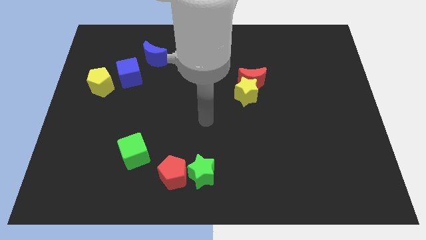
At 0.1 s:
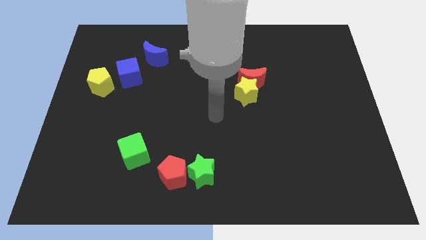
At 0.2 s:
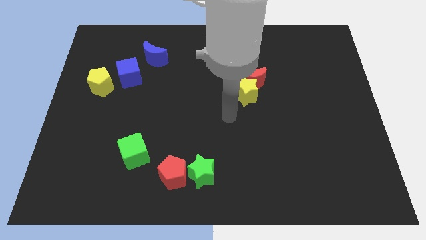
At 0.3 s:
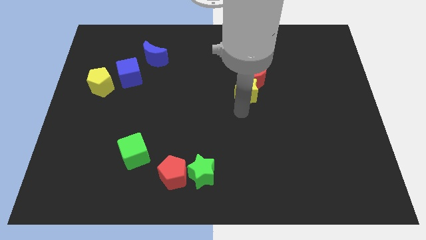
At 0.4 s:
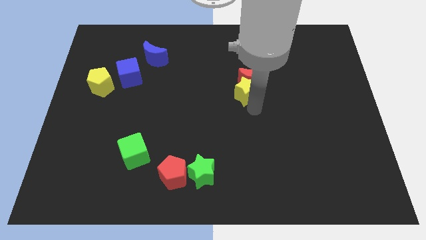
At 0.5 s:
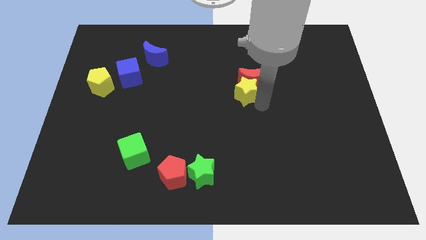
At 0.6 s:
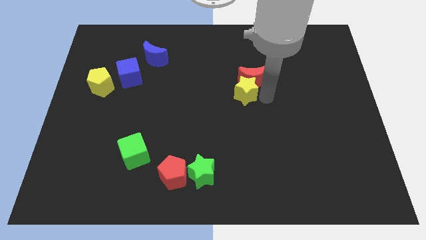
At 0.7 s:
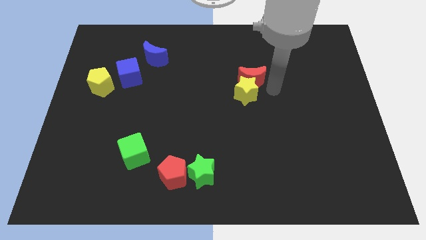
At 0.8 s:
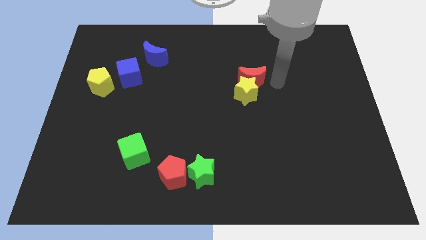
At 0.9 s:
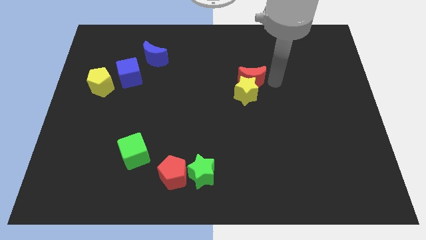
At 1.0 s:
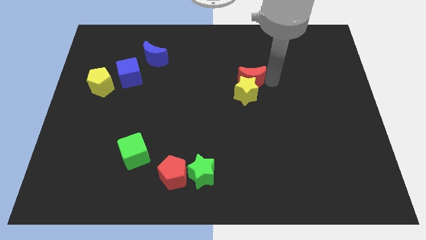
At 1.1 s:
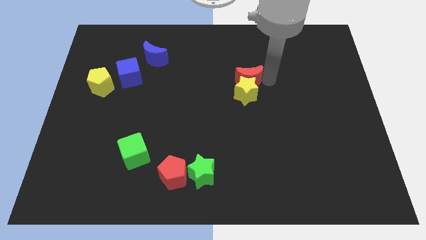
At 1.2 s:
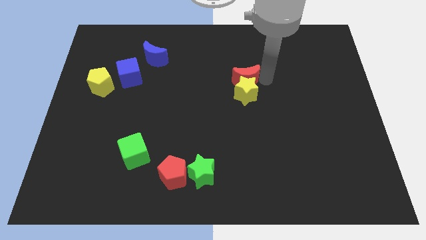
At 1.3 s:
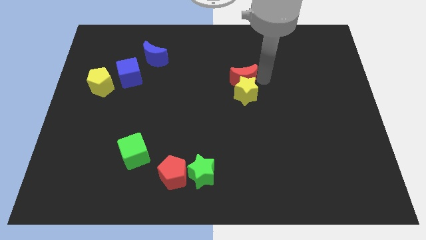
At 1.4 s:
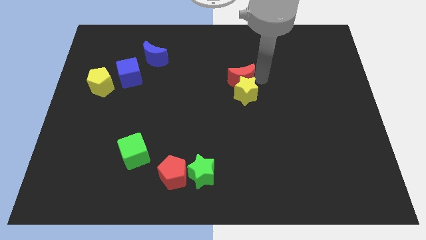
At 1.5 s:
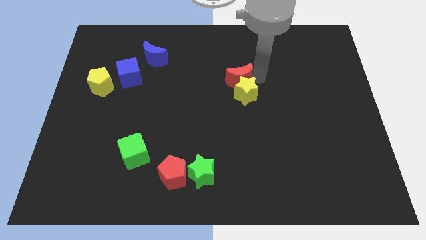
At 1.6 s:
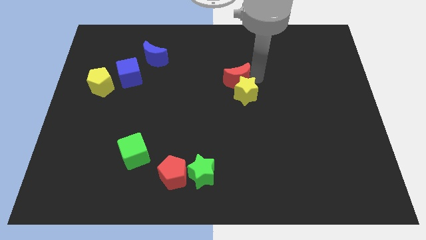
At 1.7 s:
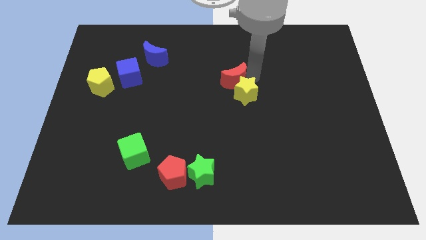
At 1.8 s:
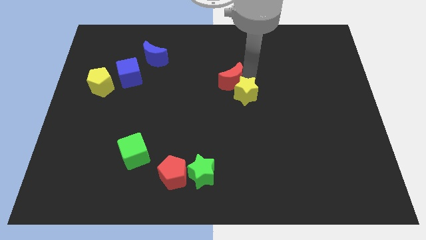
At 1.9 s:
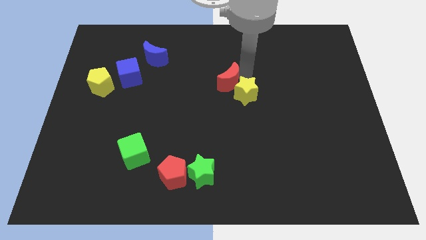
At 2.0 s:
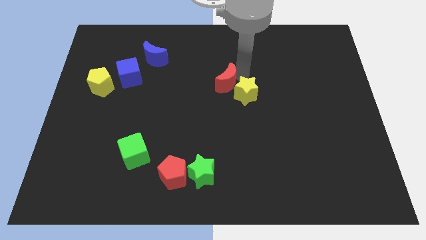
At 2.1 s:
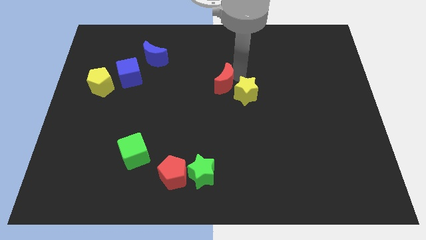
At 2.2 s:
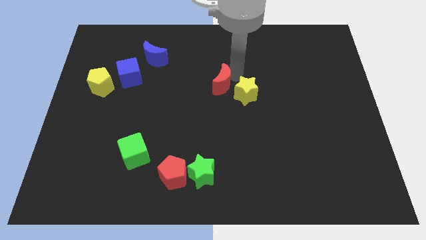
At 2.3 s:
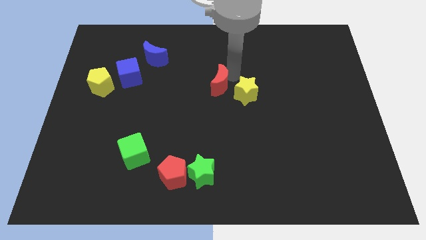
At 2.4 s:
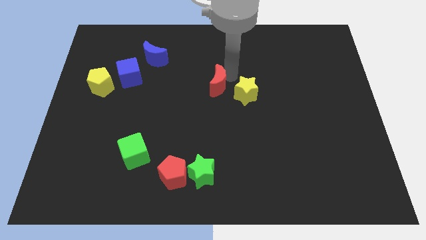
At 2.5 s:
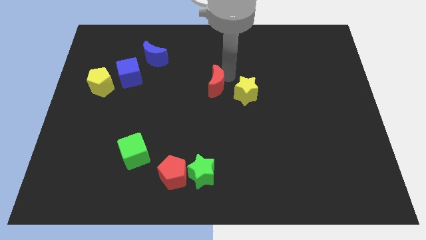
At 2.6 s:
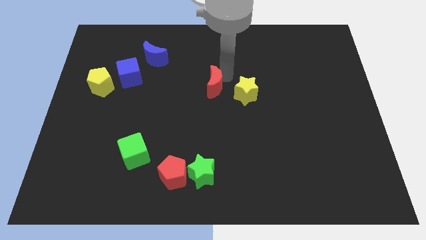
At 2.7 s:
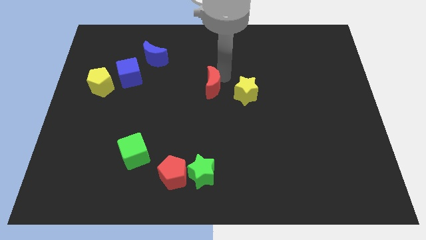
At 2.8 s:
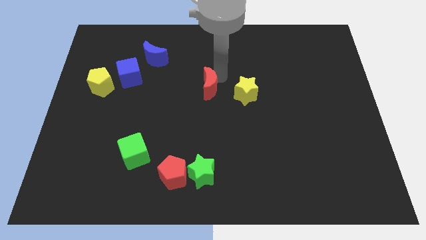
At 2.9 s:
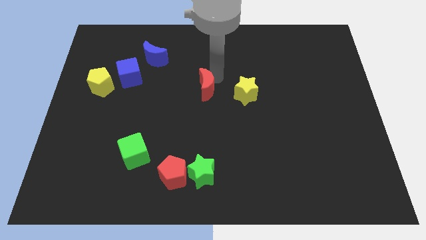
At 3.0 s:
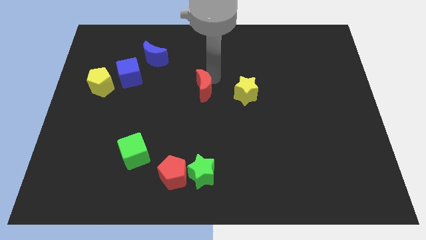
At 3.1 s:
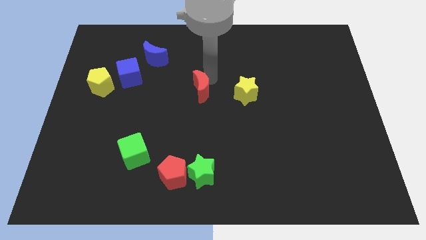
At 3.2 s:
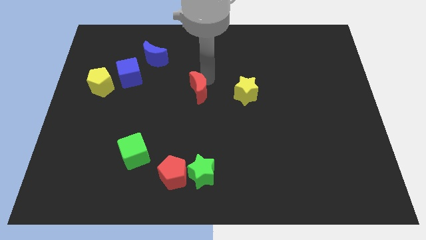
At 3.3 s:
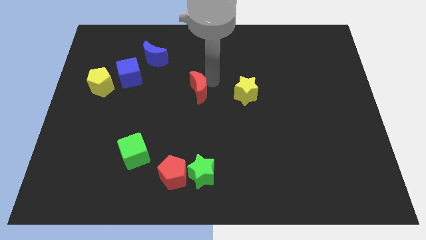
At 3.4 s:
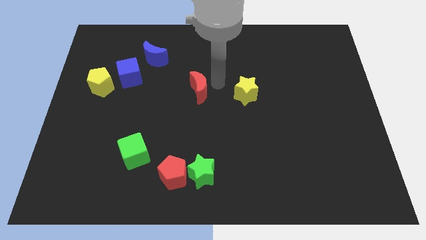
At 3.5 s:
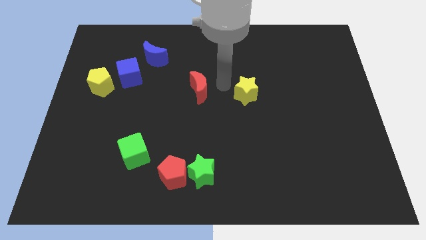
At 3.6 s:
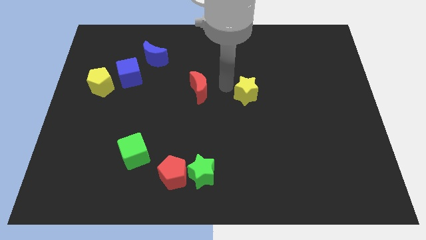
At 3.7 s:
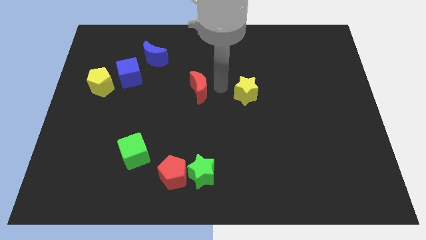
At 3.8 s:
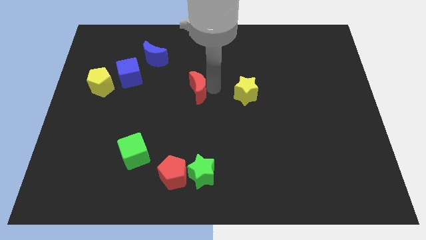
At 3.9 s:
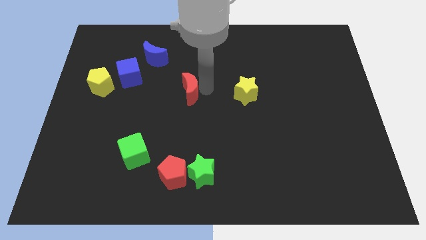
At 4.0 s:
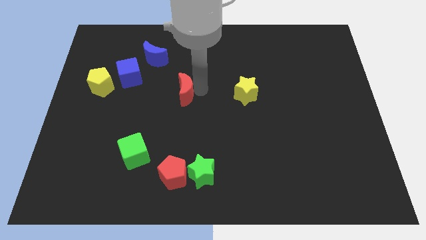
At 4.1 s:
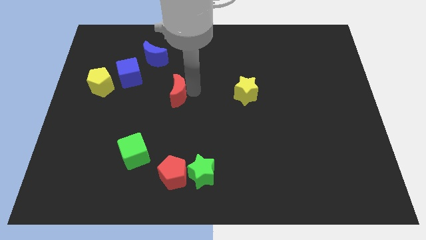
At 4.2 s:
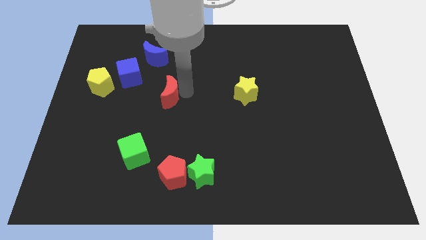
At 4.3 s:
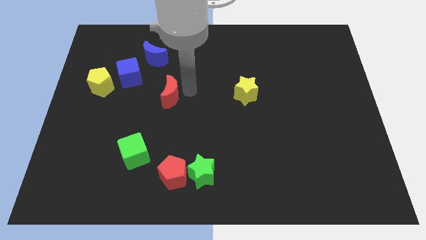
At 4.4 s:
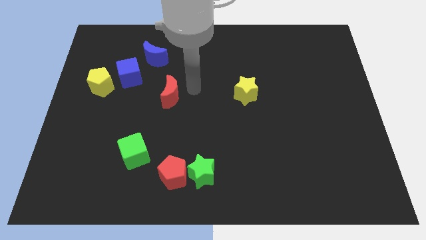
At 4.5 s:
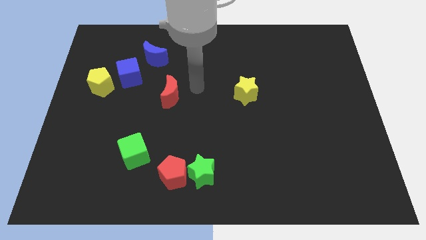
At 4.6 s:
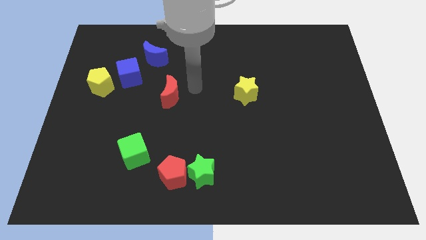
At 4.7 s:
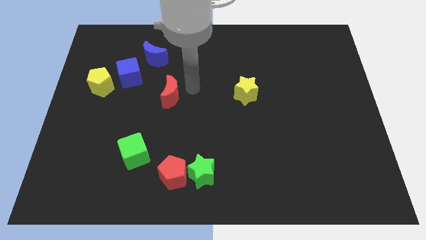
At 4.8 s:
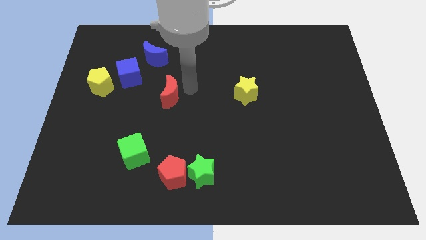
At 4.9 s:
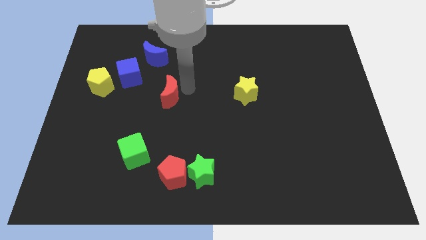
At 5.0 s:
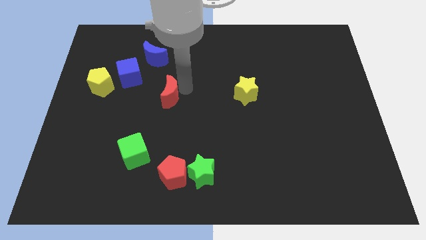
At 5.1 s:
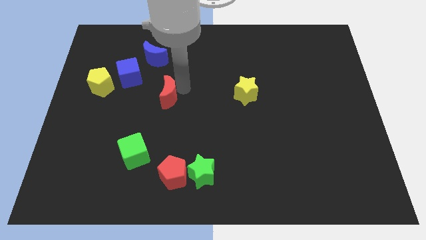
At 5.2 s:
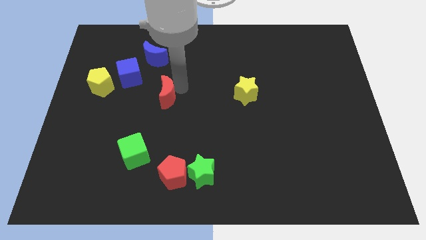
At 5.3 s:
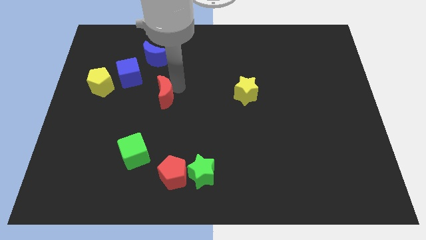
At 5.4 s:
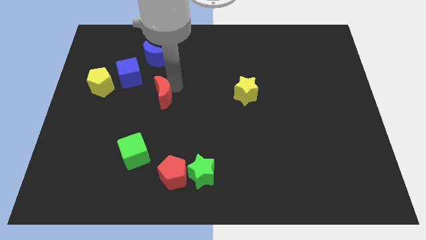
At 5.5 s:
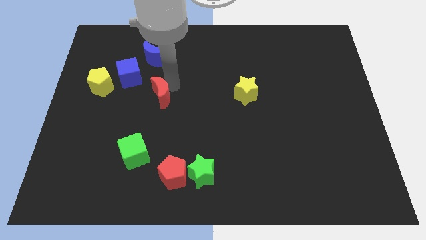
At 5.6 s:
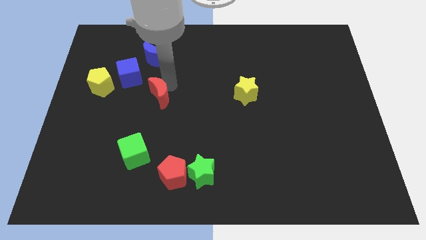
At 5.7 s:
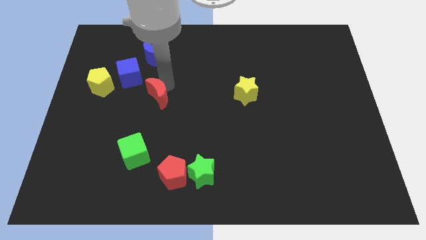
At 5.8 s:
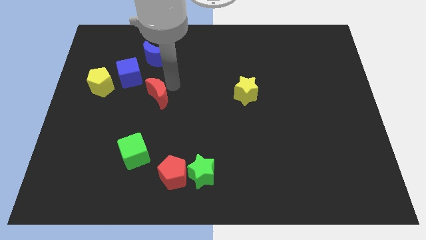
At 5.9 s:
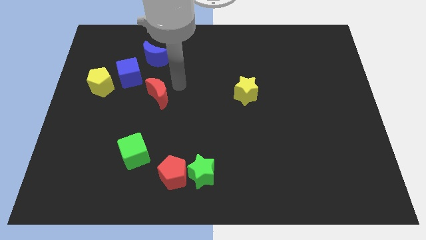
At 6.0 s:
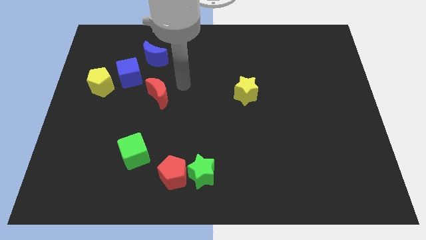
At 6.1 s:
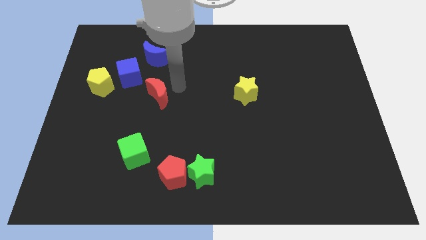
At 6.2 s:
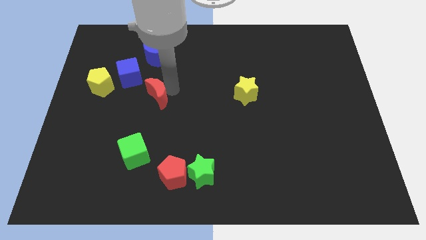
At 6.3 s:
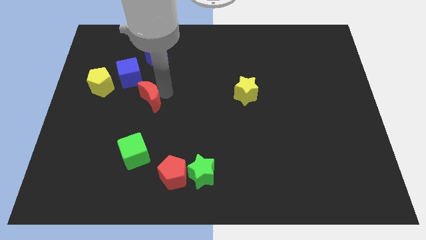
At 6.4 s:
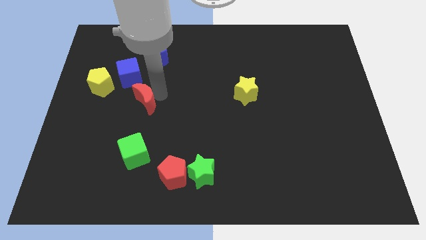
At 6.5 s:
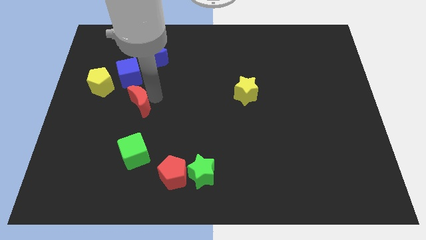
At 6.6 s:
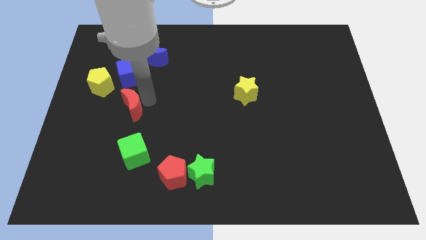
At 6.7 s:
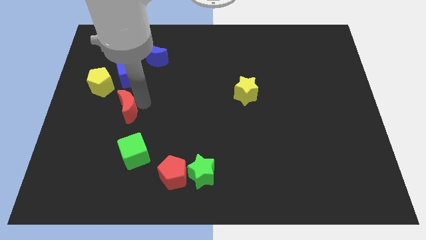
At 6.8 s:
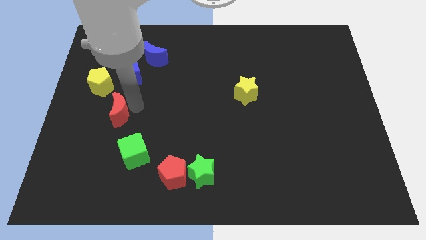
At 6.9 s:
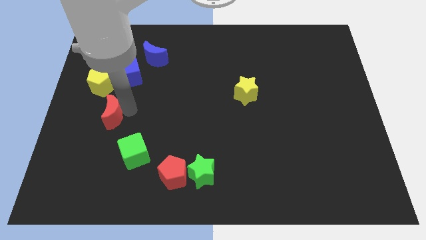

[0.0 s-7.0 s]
move the red moon to the bottom of the yellow pentagon
